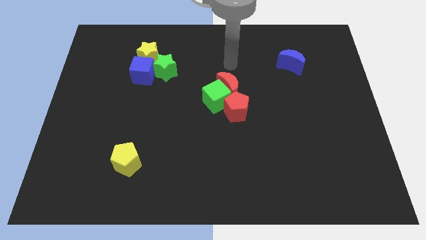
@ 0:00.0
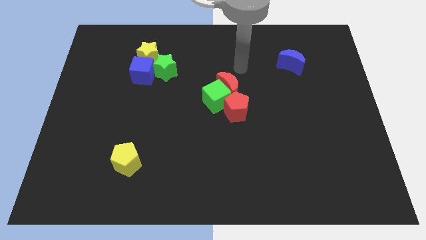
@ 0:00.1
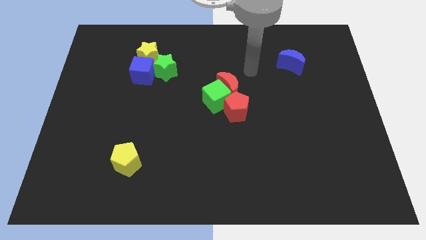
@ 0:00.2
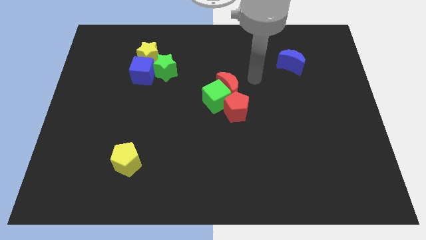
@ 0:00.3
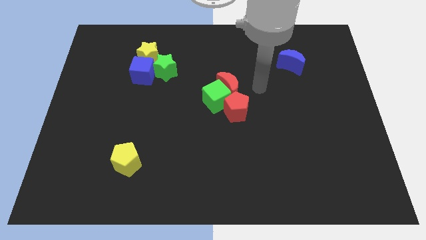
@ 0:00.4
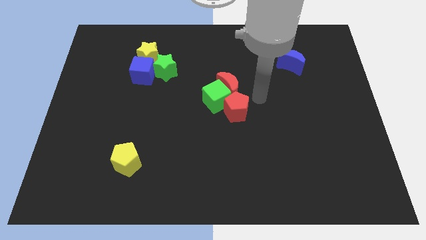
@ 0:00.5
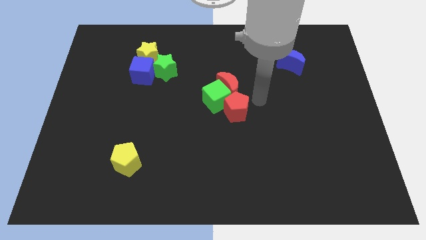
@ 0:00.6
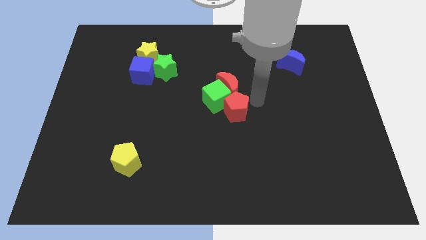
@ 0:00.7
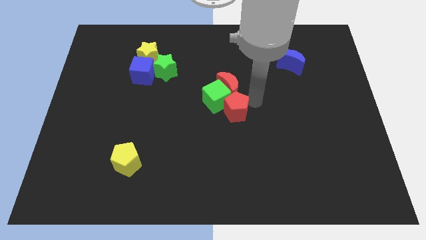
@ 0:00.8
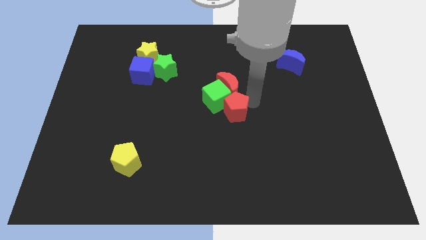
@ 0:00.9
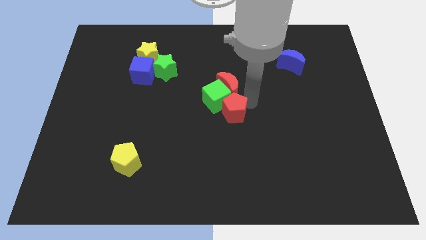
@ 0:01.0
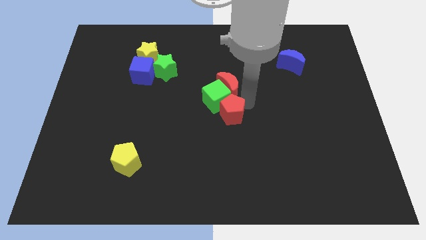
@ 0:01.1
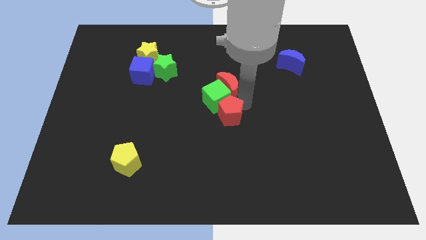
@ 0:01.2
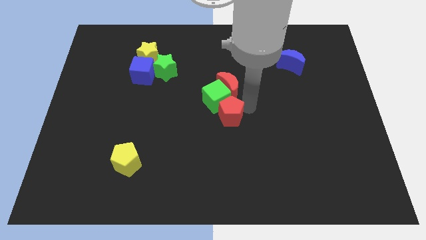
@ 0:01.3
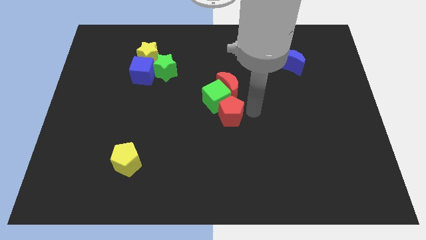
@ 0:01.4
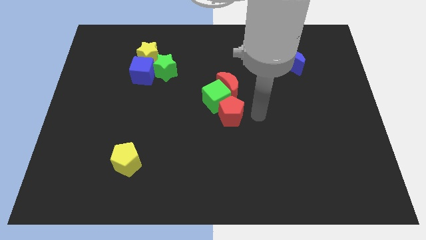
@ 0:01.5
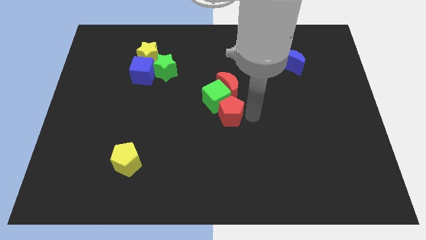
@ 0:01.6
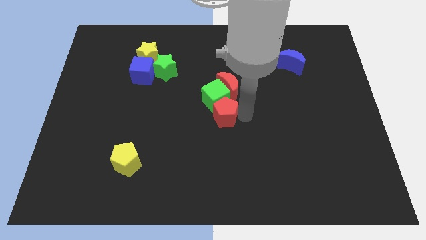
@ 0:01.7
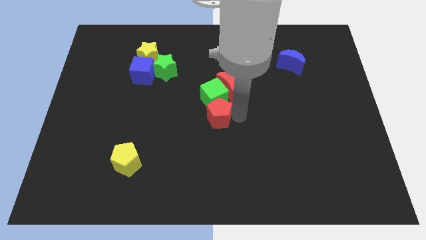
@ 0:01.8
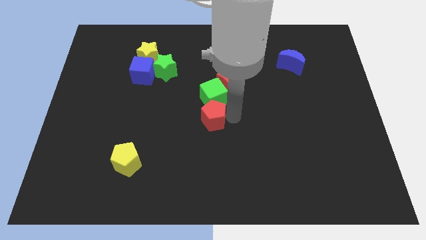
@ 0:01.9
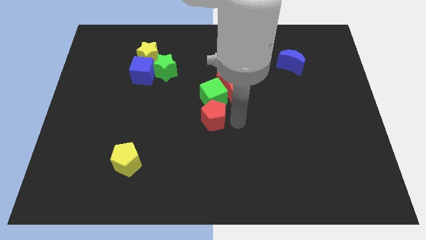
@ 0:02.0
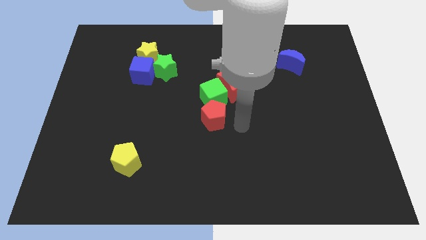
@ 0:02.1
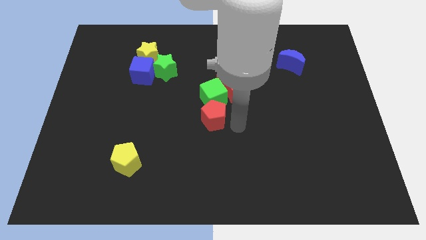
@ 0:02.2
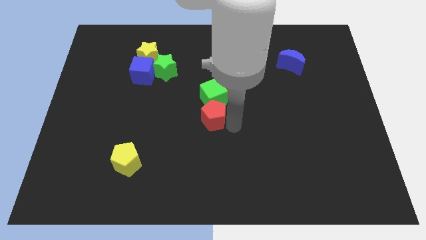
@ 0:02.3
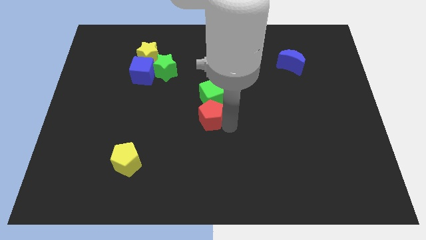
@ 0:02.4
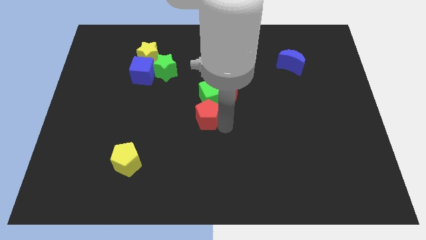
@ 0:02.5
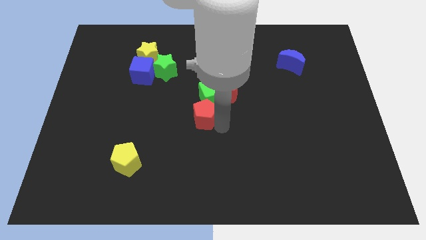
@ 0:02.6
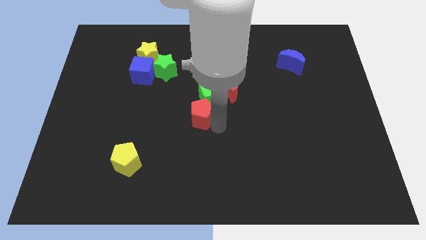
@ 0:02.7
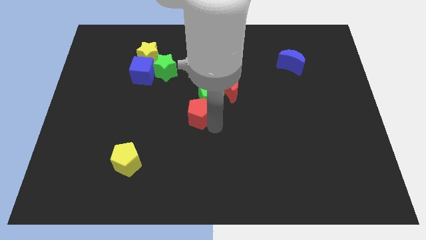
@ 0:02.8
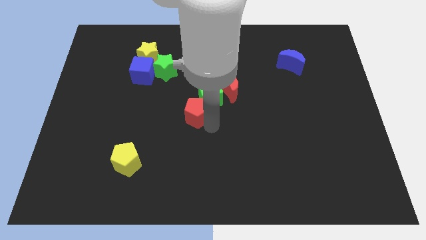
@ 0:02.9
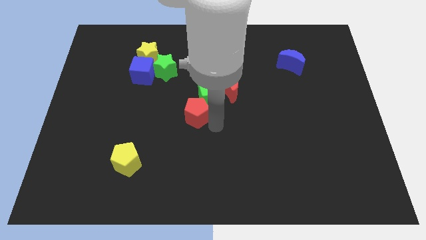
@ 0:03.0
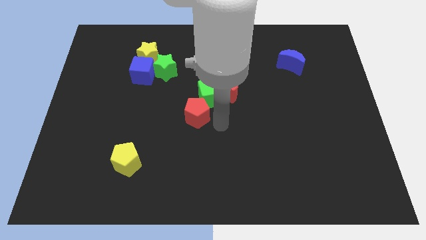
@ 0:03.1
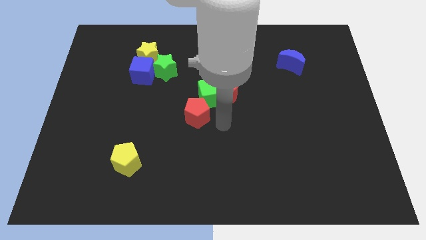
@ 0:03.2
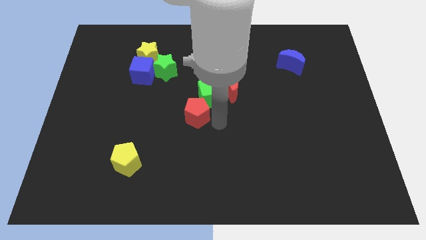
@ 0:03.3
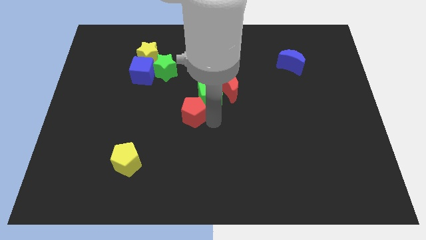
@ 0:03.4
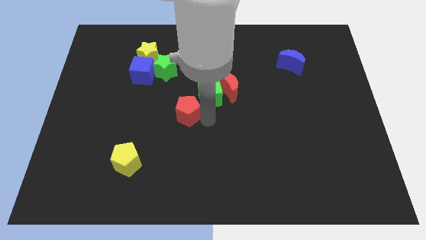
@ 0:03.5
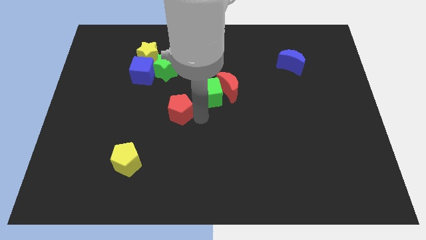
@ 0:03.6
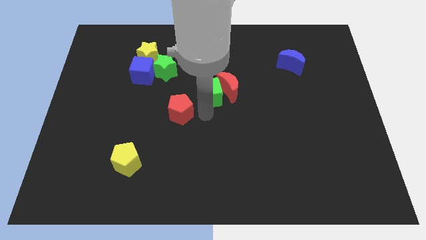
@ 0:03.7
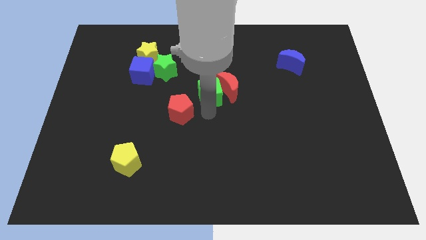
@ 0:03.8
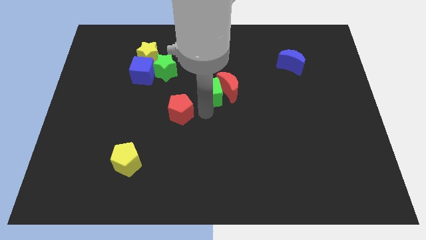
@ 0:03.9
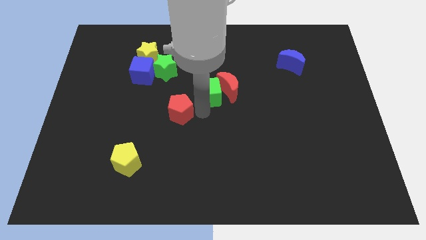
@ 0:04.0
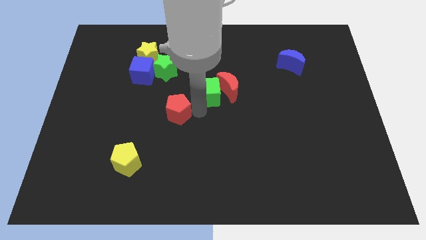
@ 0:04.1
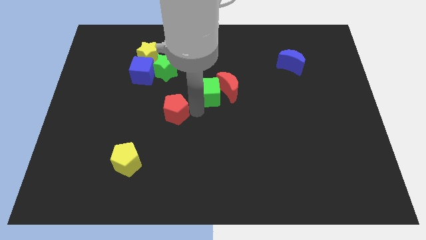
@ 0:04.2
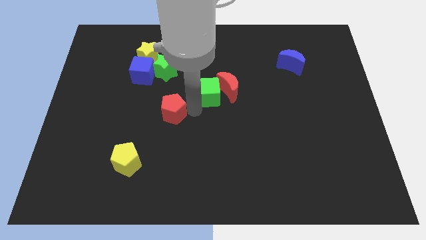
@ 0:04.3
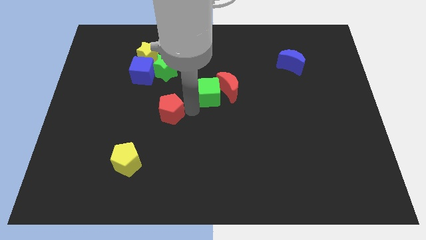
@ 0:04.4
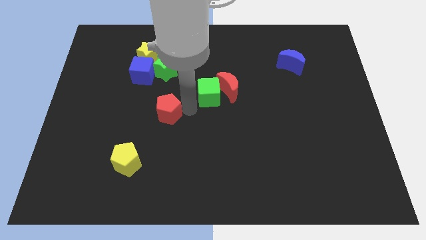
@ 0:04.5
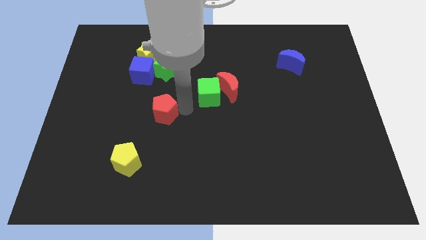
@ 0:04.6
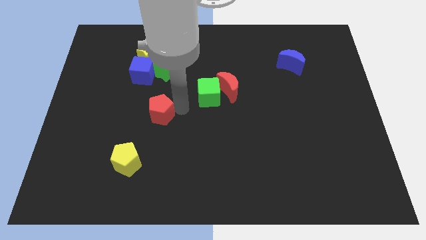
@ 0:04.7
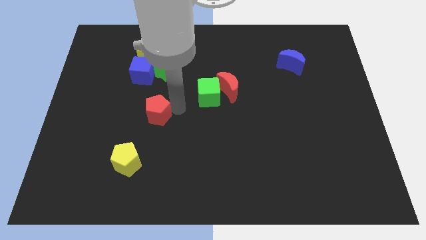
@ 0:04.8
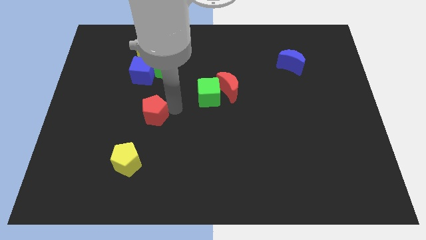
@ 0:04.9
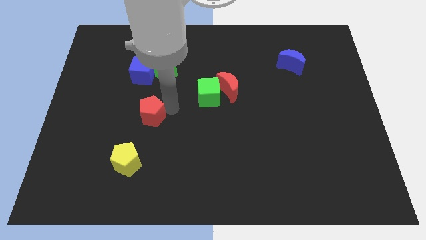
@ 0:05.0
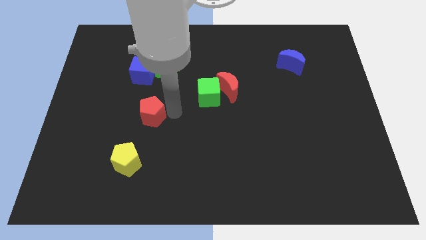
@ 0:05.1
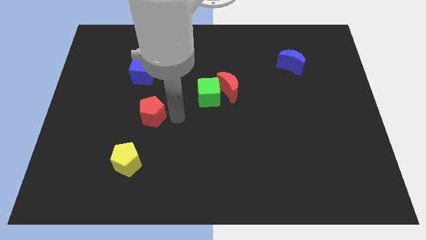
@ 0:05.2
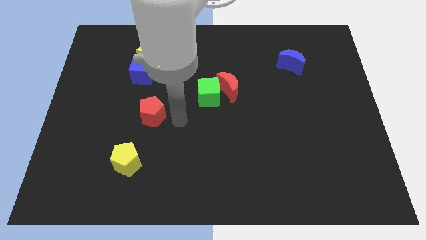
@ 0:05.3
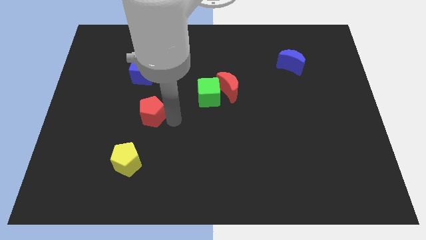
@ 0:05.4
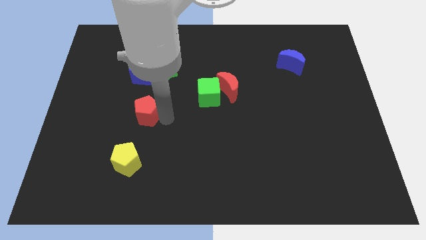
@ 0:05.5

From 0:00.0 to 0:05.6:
push the red pentagon left

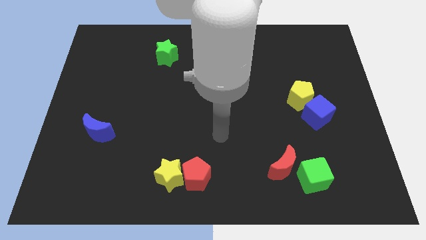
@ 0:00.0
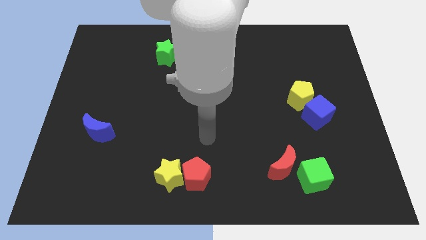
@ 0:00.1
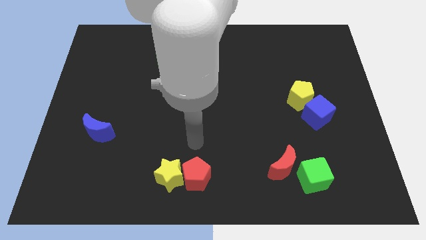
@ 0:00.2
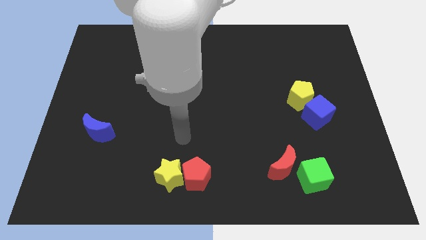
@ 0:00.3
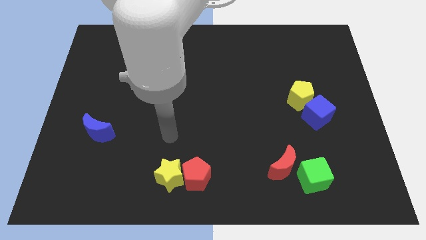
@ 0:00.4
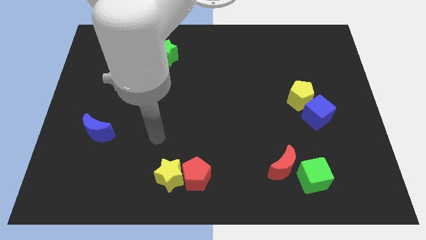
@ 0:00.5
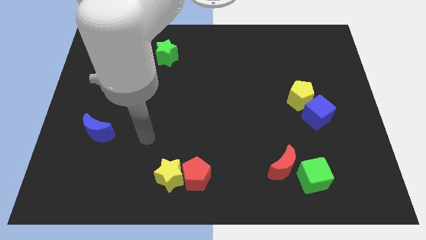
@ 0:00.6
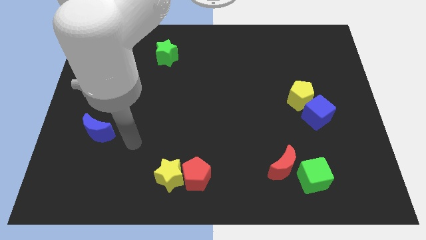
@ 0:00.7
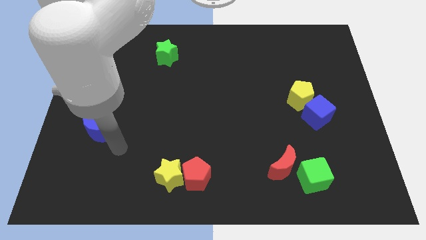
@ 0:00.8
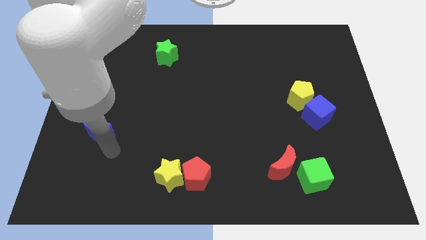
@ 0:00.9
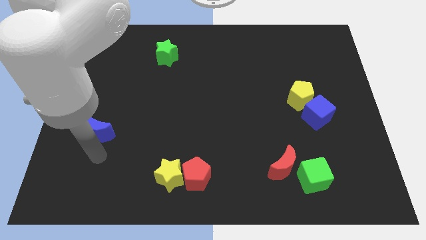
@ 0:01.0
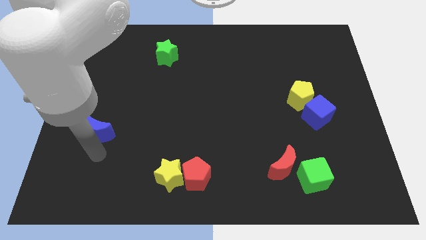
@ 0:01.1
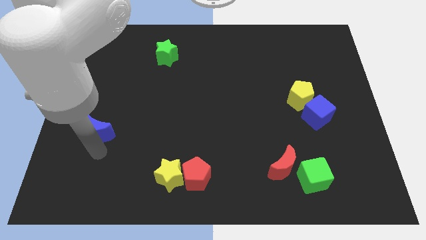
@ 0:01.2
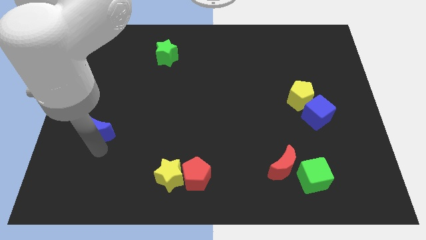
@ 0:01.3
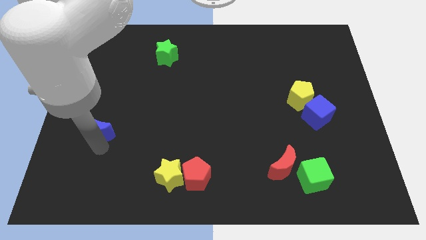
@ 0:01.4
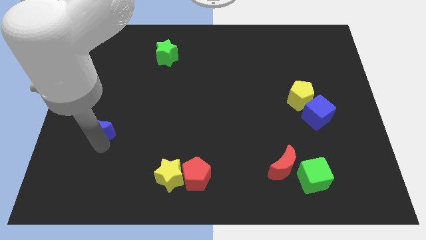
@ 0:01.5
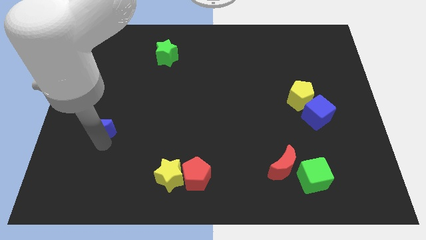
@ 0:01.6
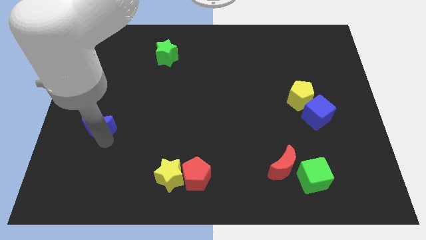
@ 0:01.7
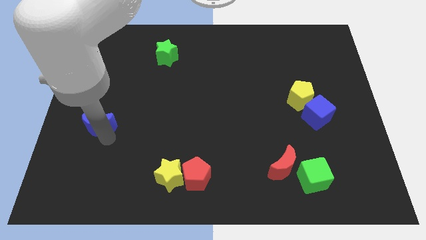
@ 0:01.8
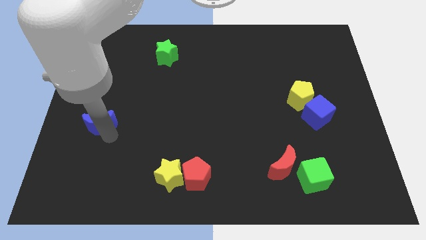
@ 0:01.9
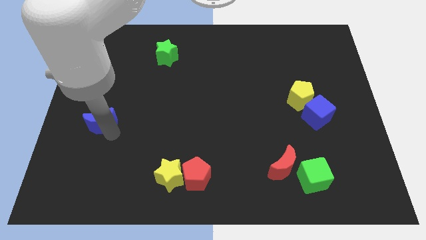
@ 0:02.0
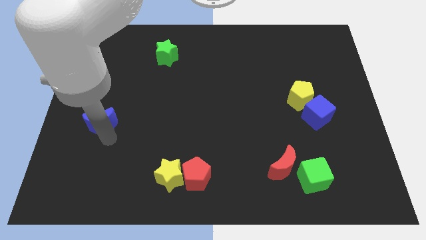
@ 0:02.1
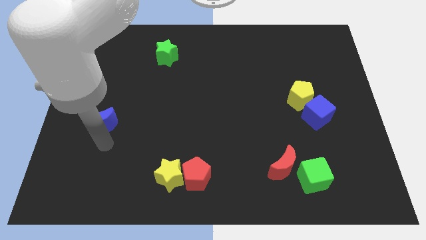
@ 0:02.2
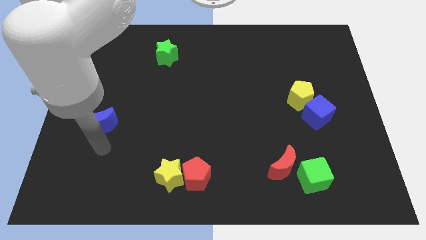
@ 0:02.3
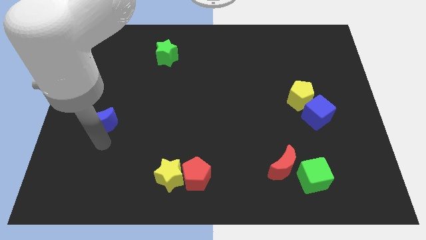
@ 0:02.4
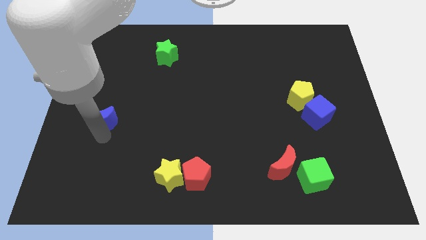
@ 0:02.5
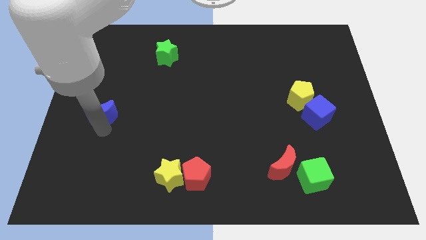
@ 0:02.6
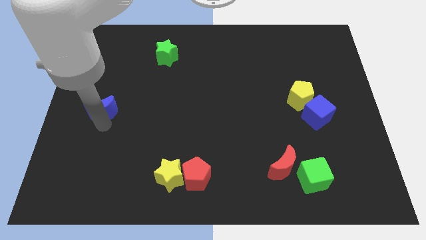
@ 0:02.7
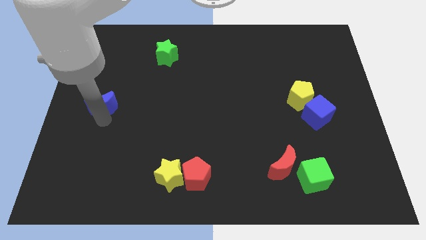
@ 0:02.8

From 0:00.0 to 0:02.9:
slide the blue moon upwards slightly
